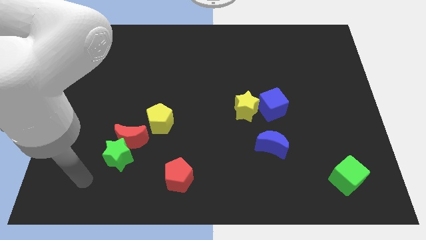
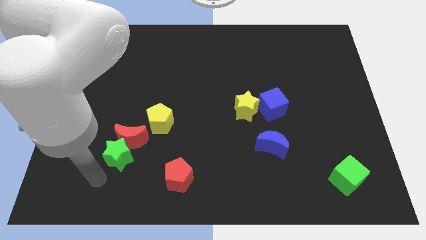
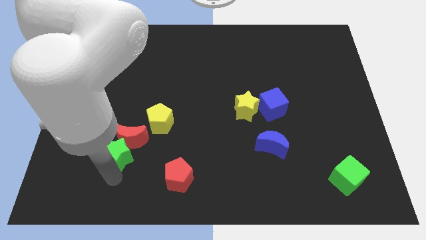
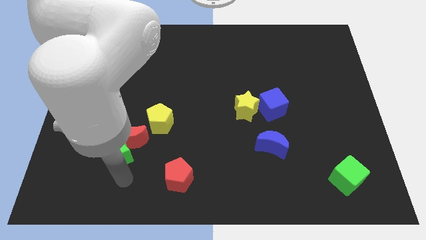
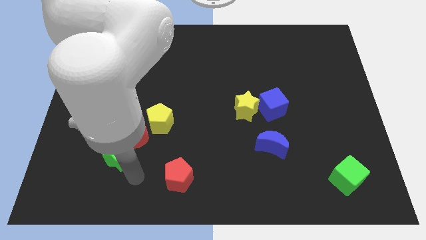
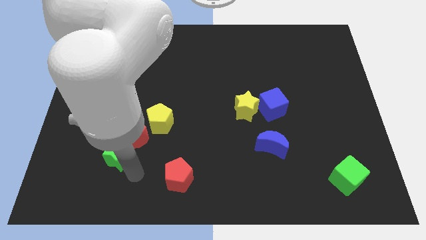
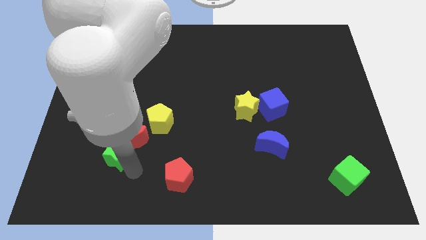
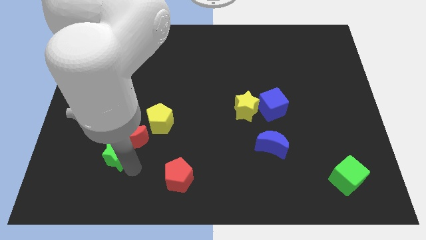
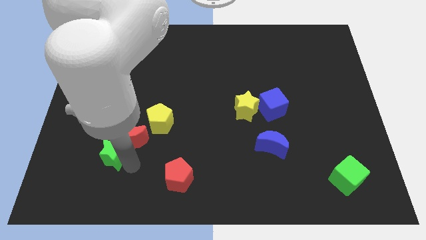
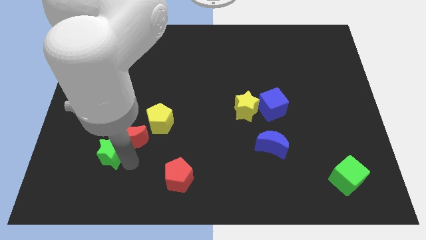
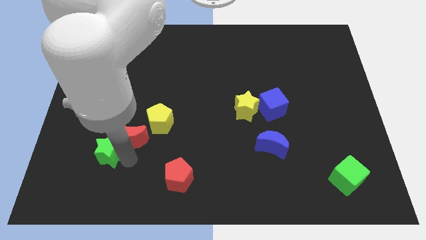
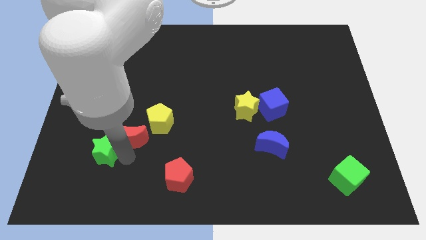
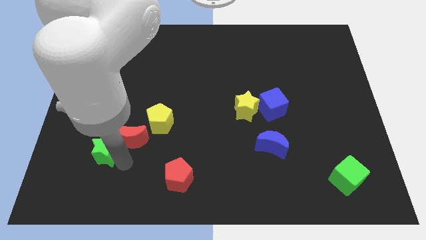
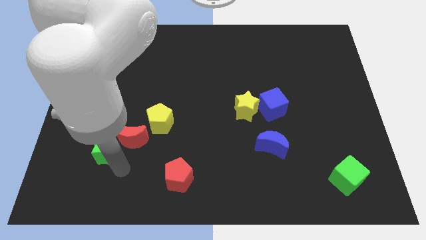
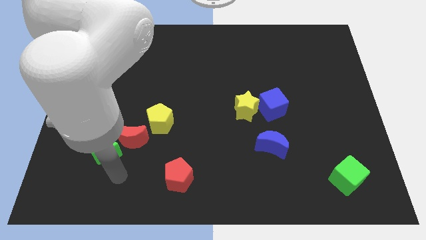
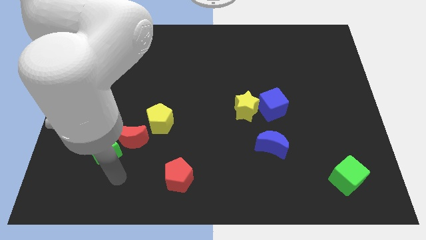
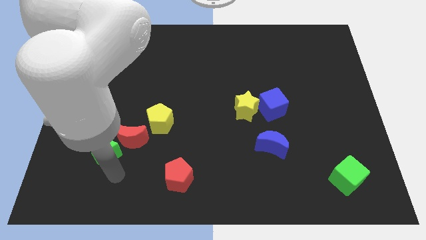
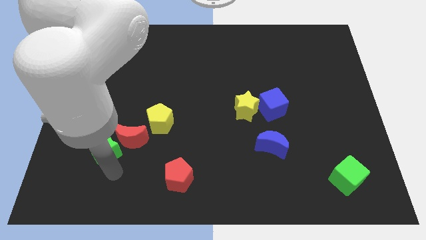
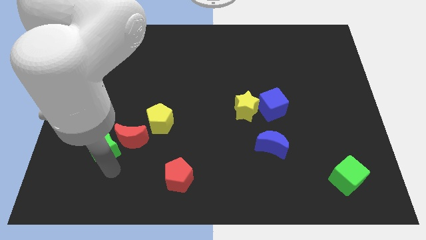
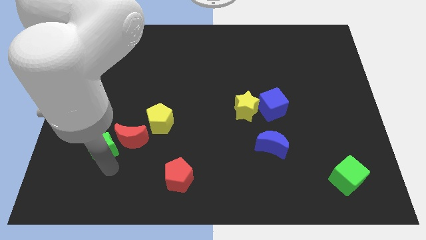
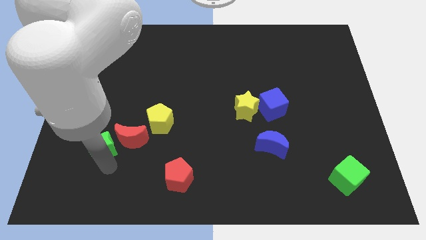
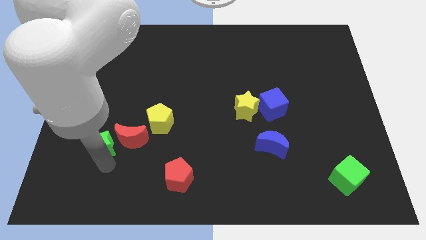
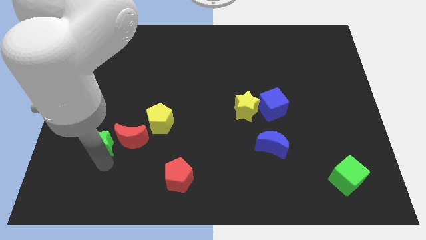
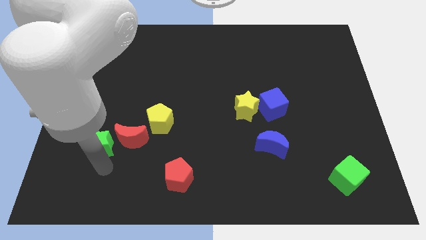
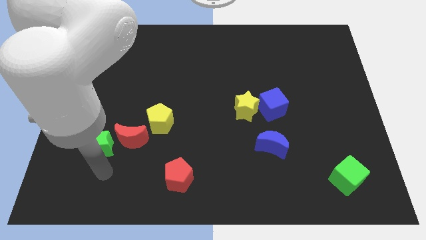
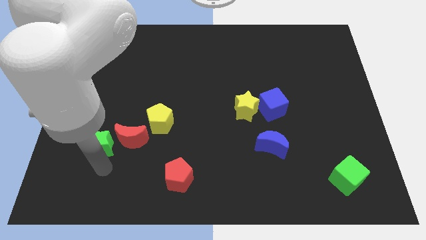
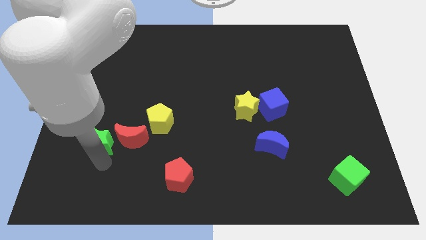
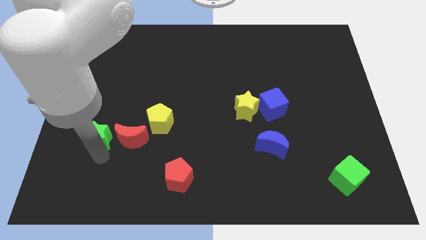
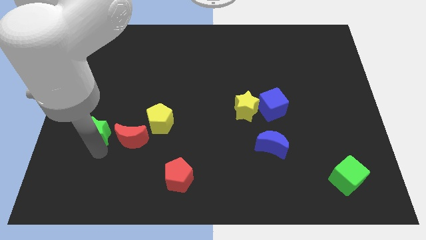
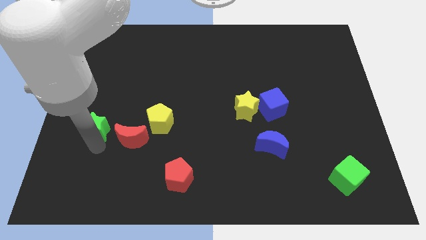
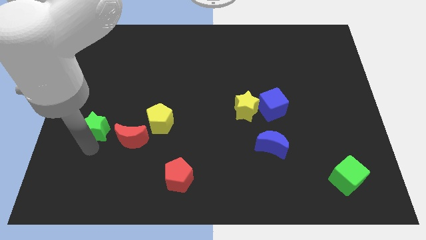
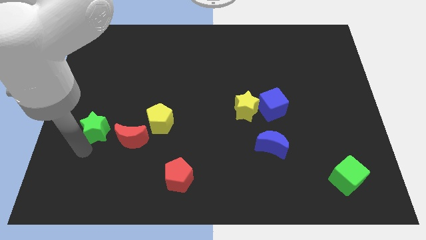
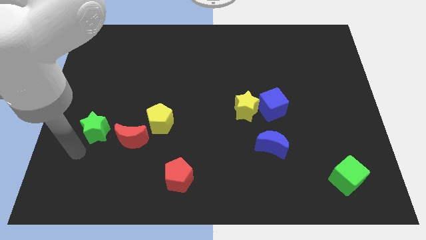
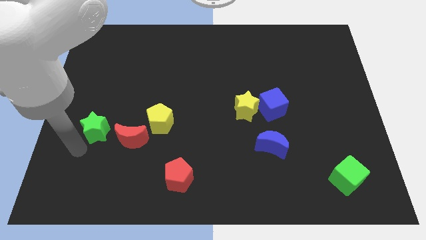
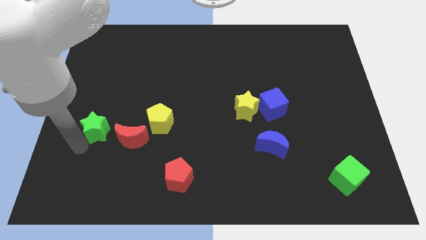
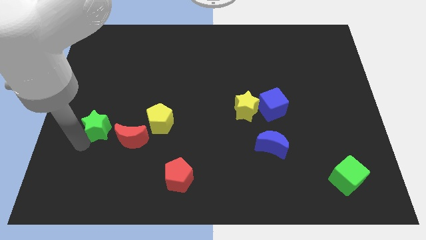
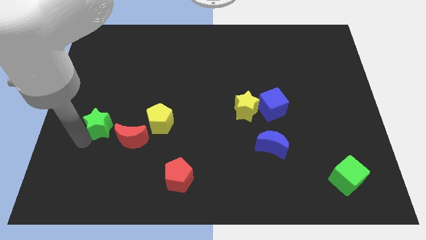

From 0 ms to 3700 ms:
slightly slide the green star up

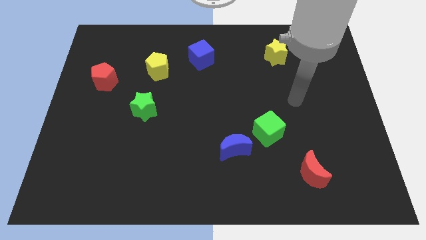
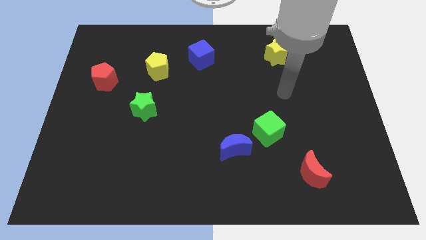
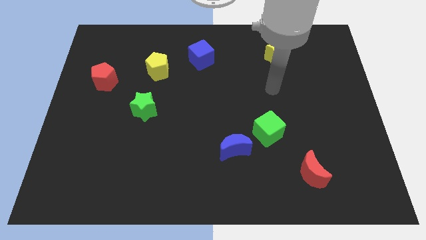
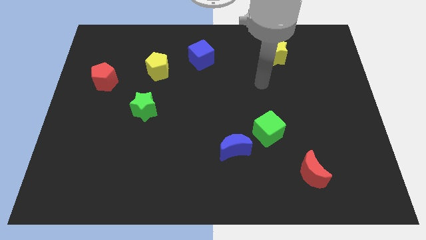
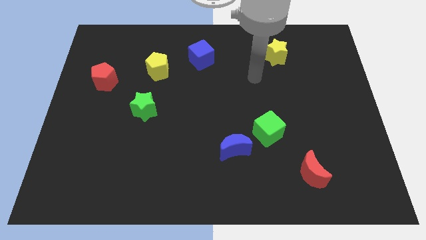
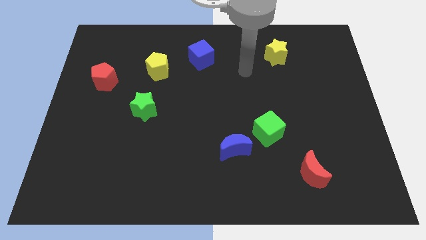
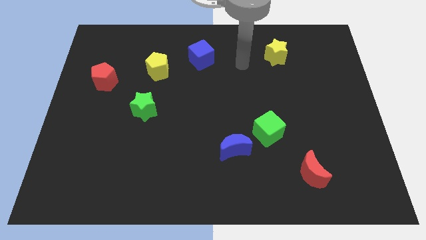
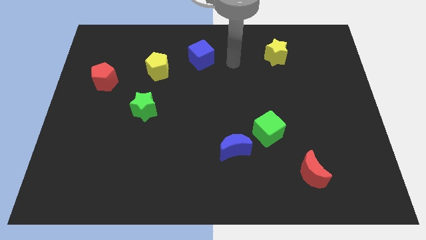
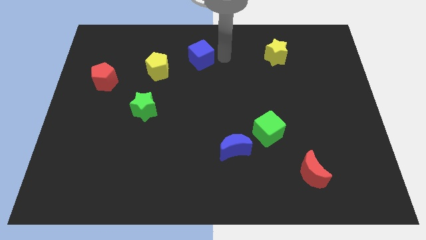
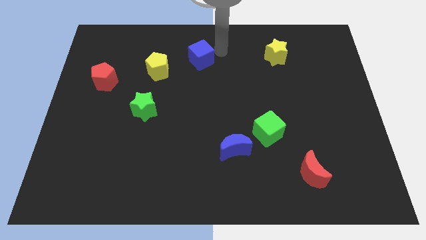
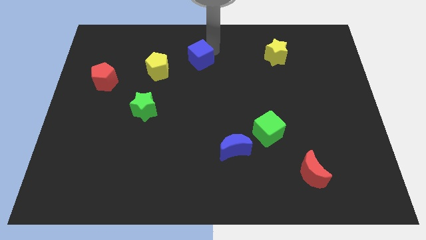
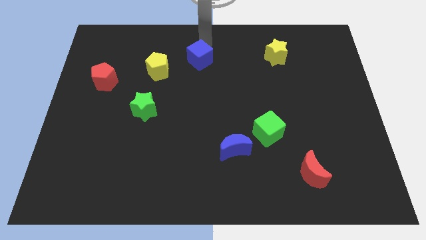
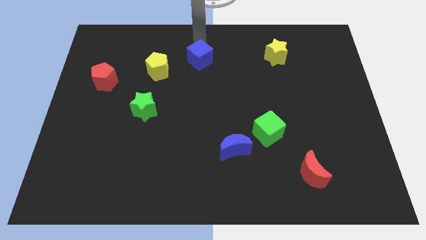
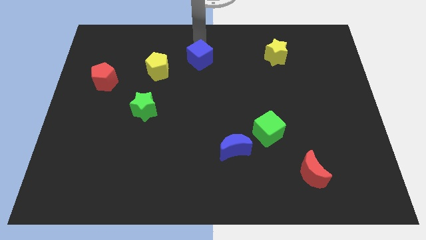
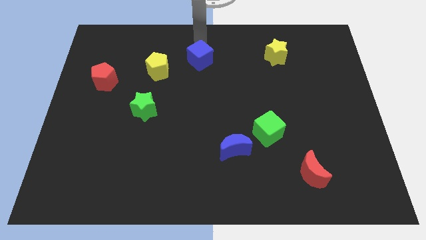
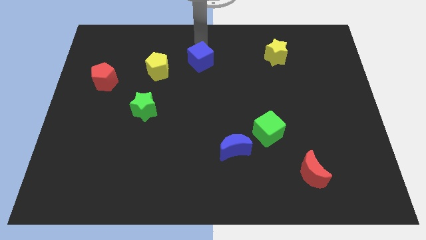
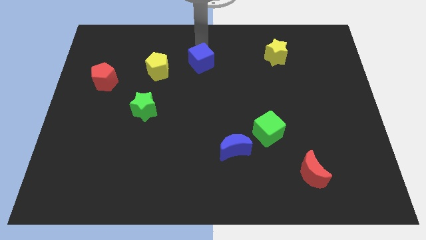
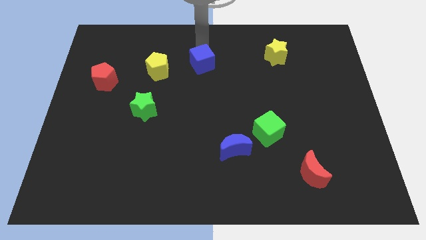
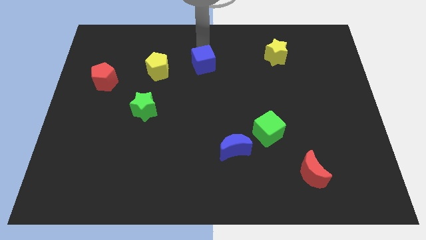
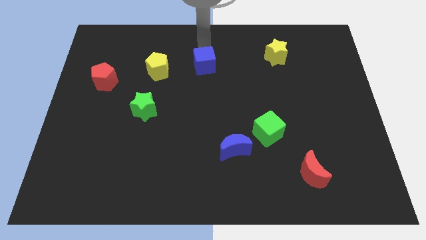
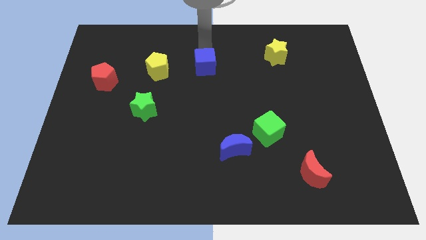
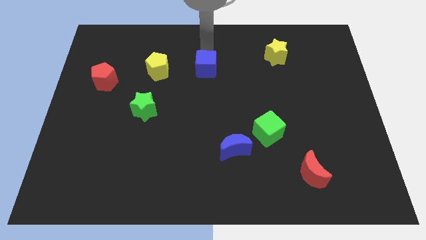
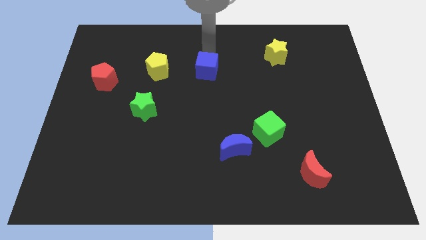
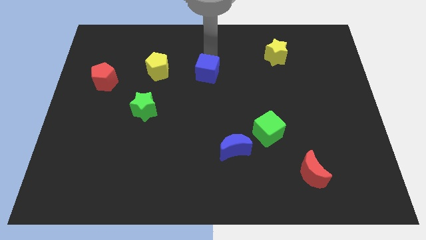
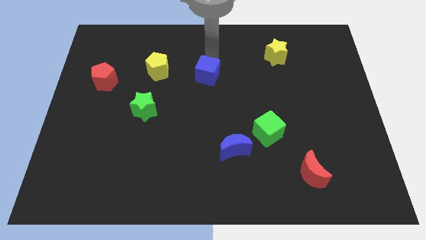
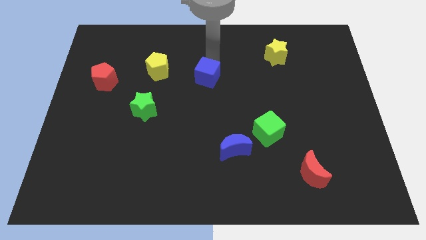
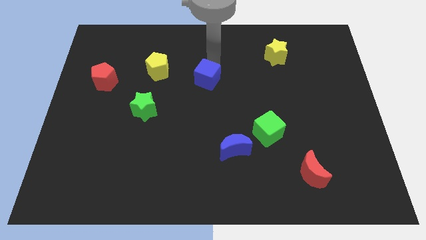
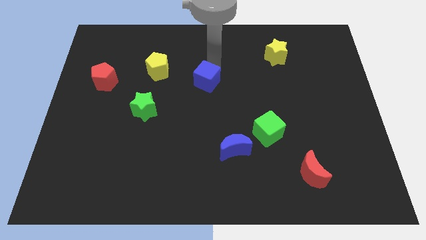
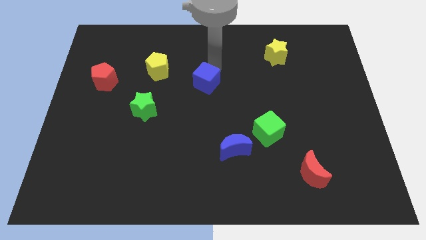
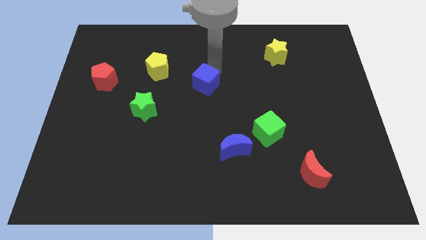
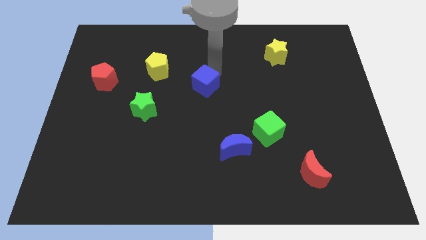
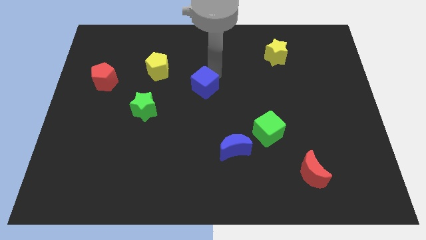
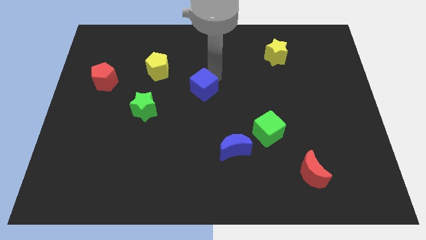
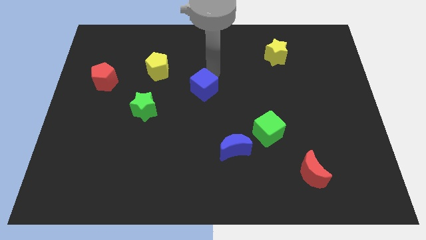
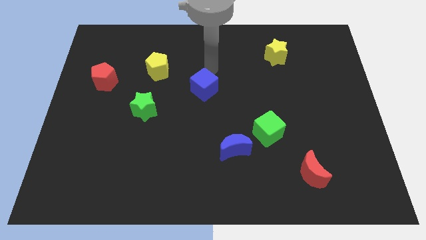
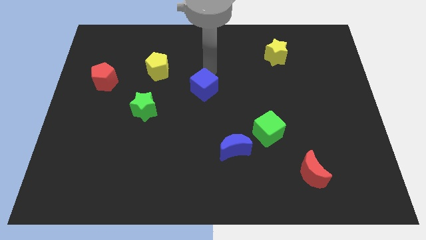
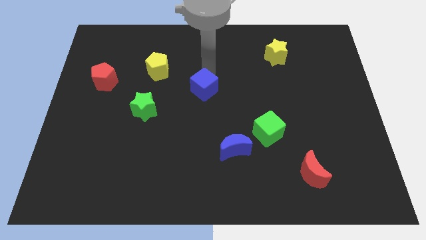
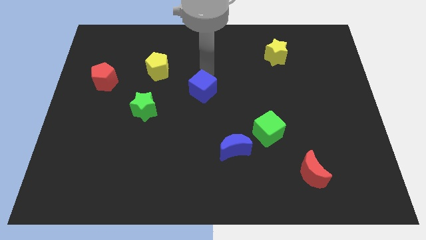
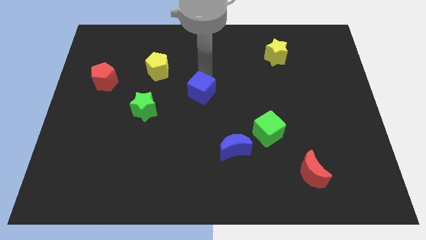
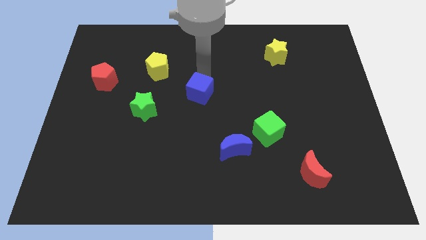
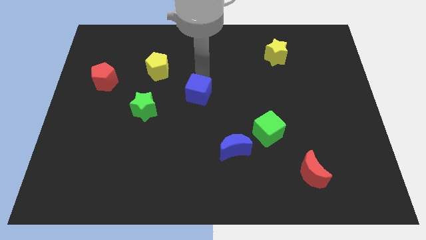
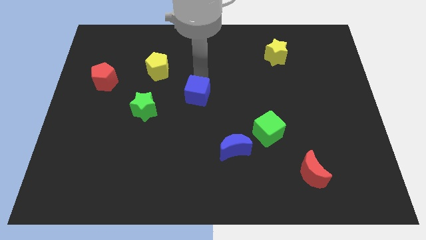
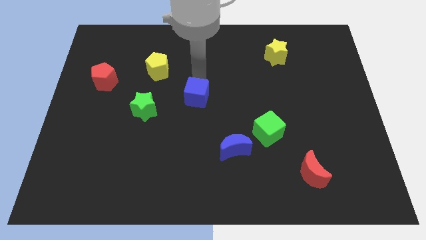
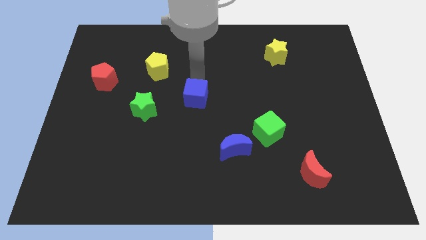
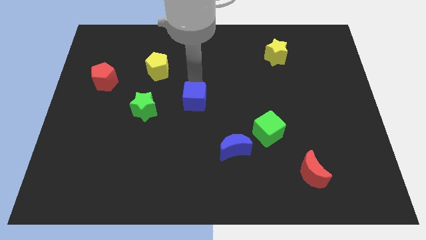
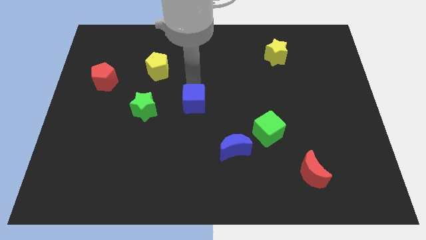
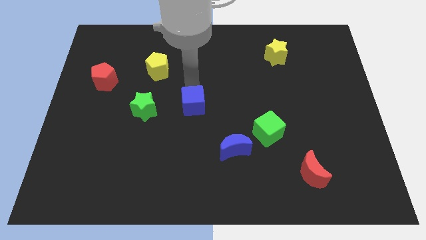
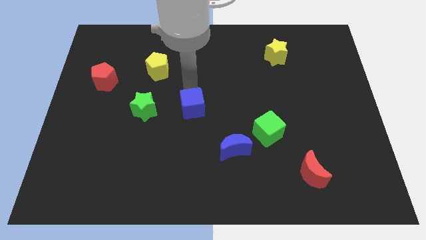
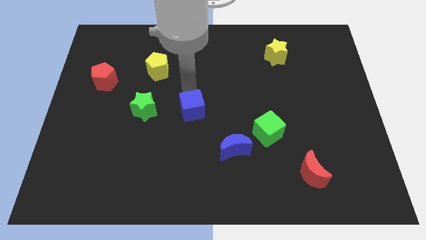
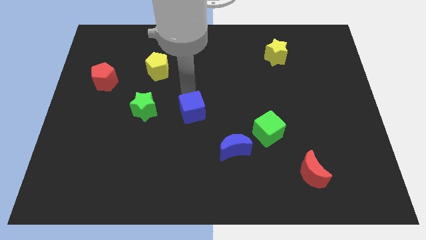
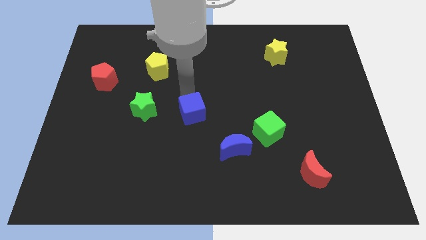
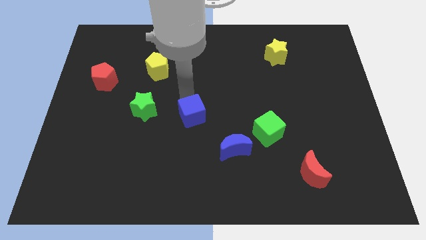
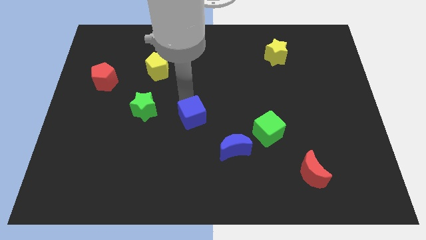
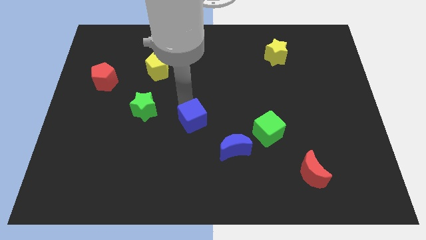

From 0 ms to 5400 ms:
move the blue cube down
